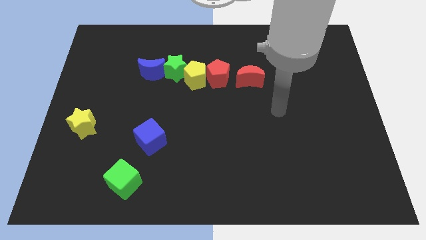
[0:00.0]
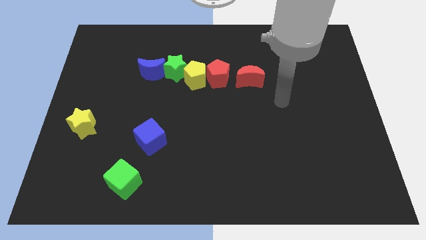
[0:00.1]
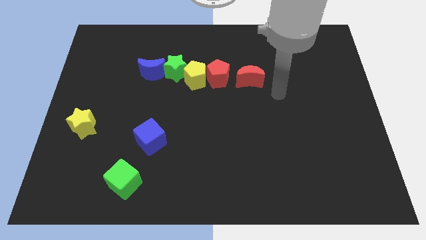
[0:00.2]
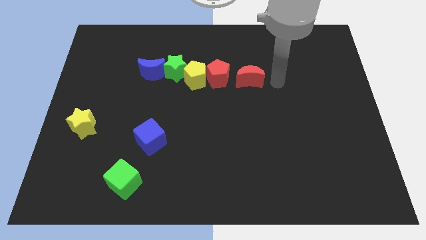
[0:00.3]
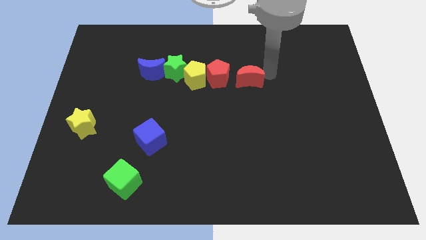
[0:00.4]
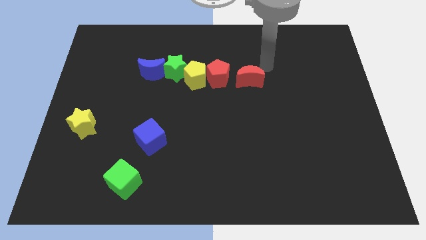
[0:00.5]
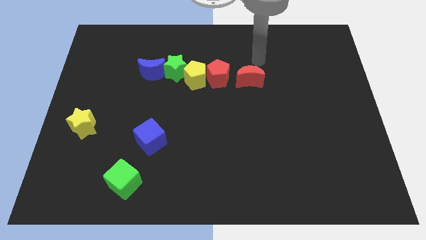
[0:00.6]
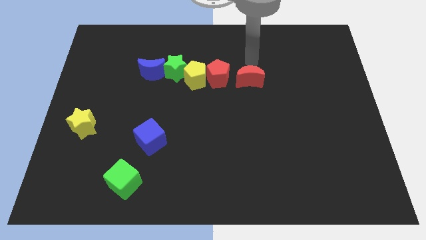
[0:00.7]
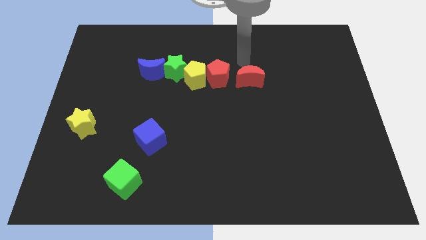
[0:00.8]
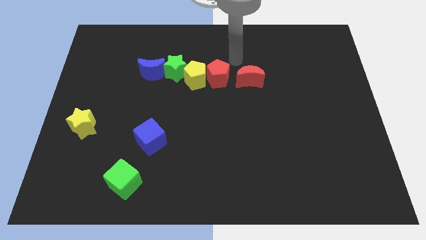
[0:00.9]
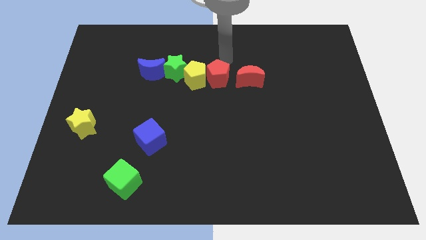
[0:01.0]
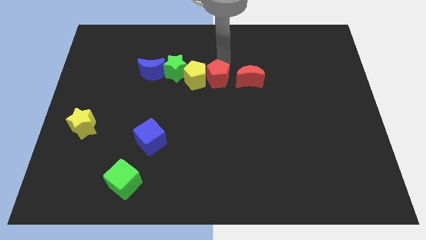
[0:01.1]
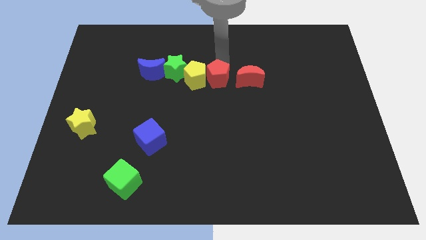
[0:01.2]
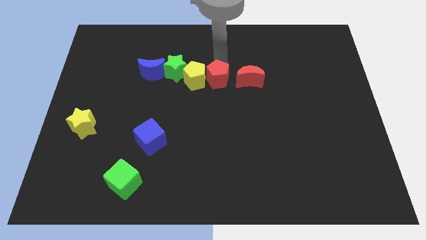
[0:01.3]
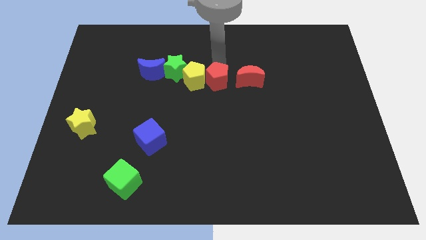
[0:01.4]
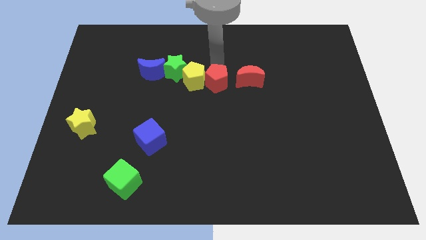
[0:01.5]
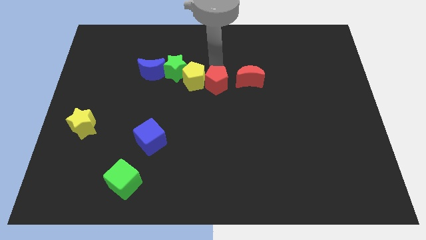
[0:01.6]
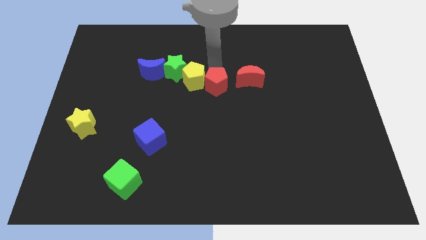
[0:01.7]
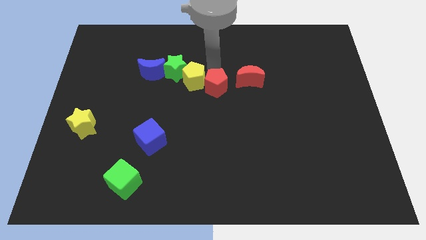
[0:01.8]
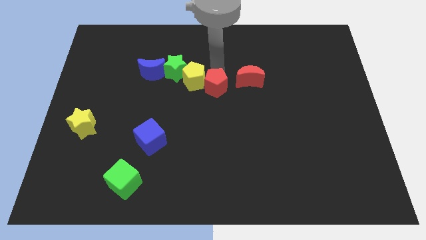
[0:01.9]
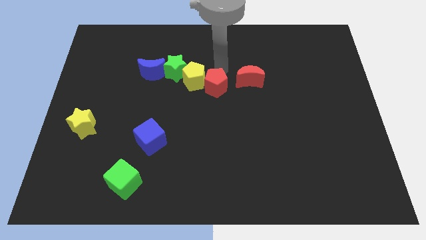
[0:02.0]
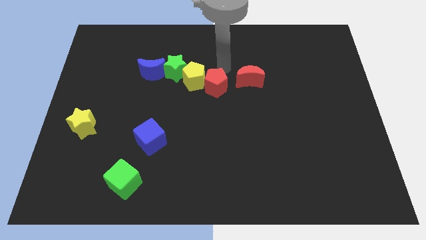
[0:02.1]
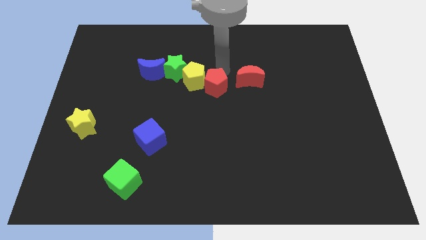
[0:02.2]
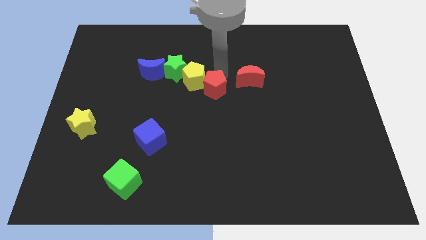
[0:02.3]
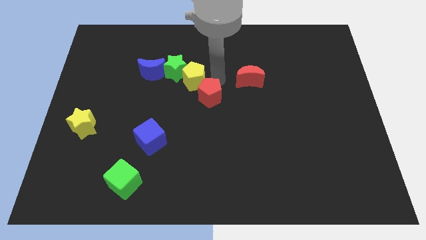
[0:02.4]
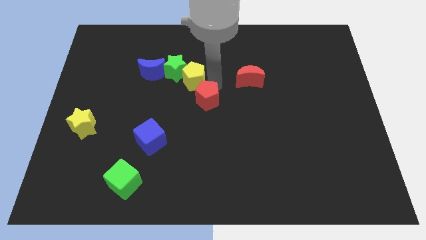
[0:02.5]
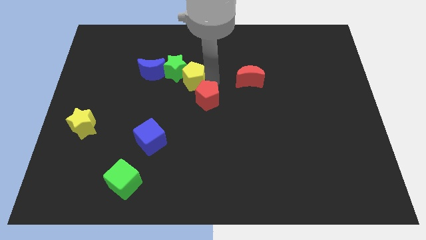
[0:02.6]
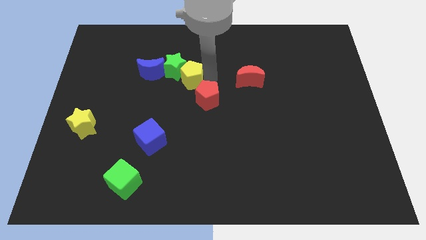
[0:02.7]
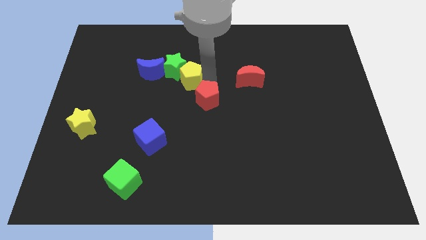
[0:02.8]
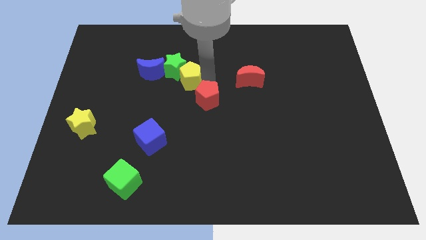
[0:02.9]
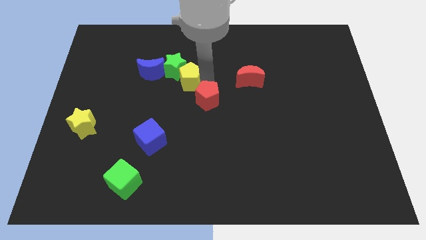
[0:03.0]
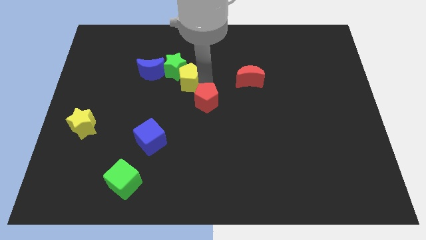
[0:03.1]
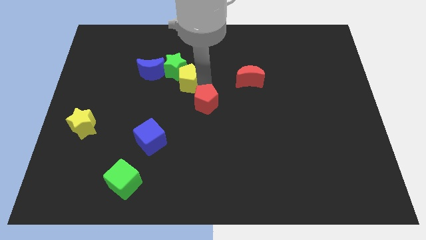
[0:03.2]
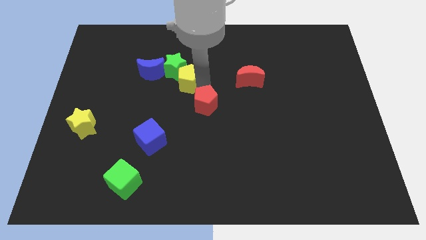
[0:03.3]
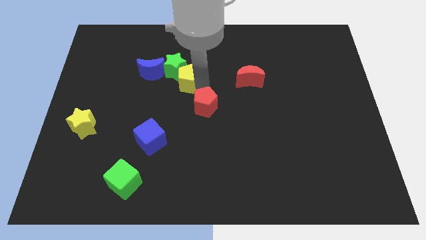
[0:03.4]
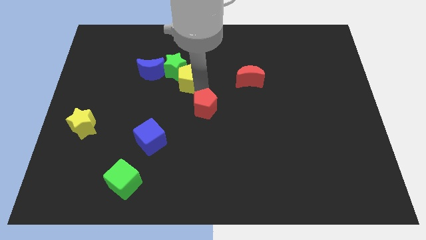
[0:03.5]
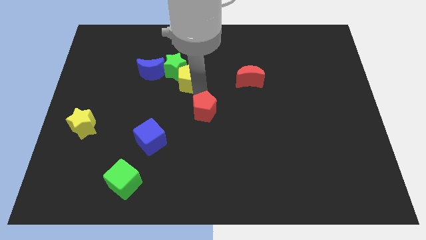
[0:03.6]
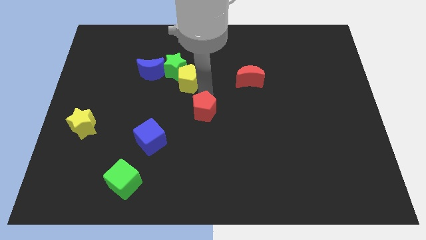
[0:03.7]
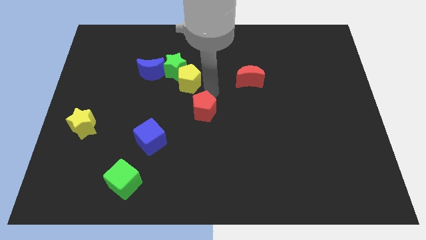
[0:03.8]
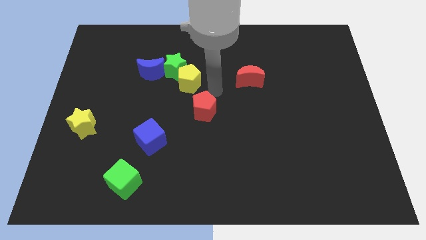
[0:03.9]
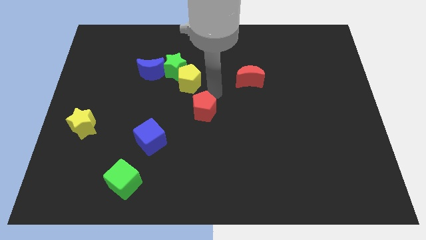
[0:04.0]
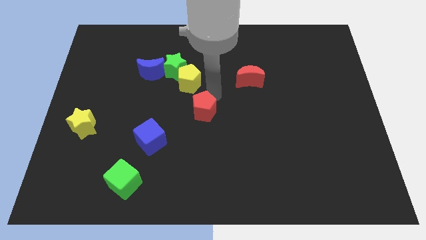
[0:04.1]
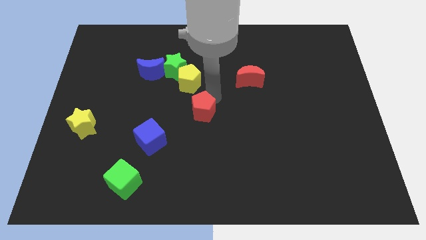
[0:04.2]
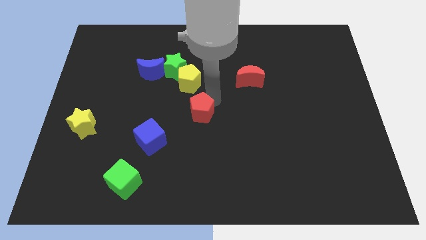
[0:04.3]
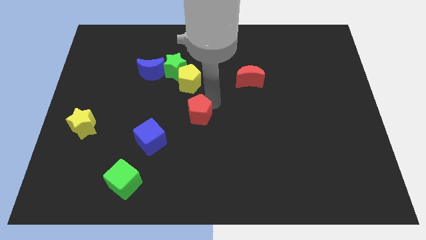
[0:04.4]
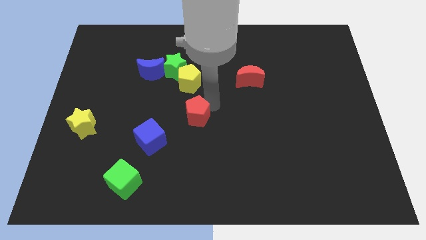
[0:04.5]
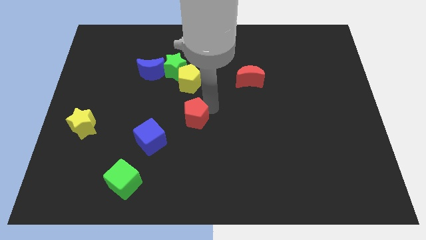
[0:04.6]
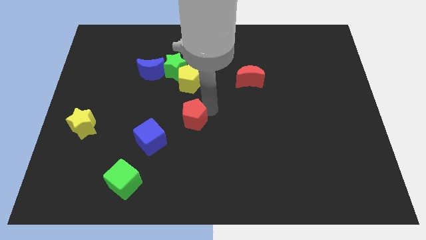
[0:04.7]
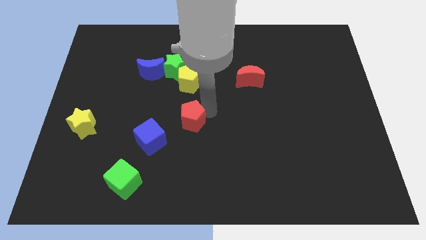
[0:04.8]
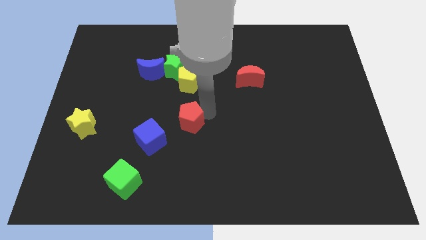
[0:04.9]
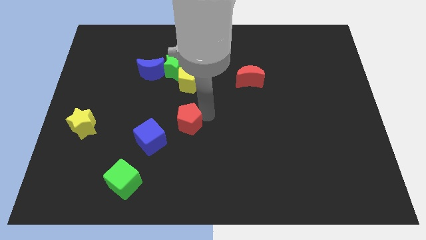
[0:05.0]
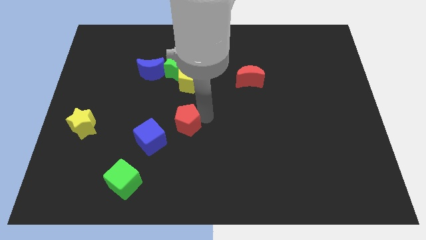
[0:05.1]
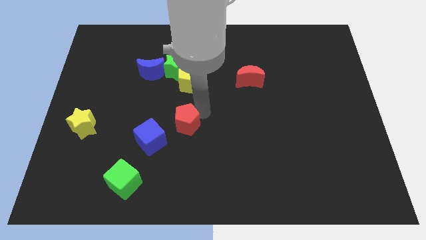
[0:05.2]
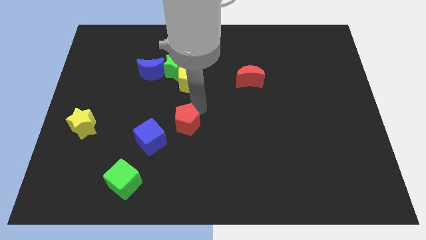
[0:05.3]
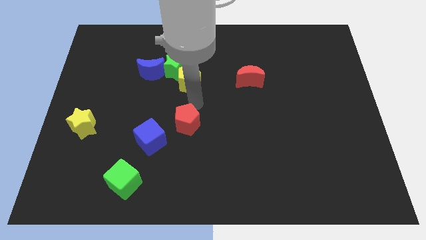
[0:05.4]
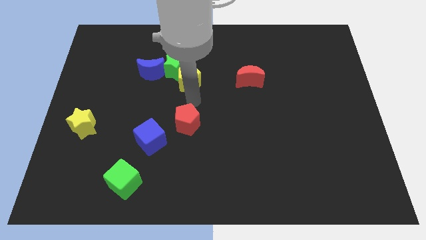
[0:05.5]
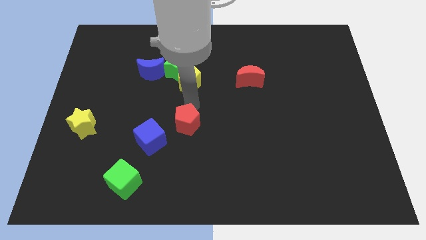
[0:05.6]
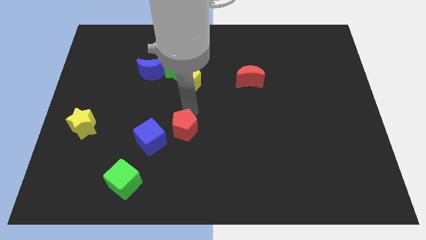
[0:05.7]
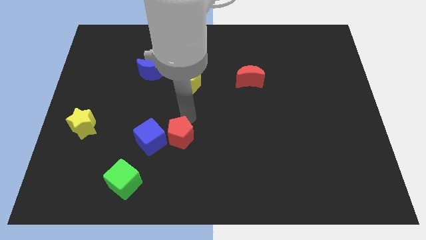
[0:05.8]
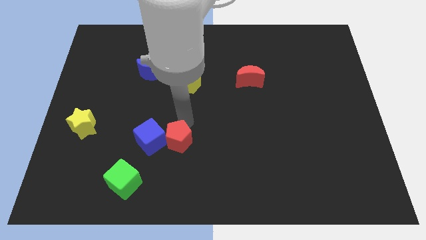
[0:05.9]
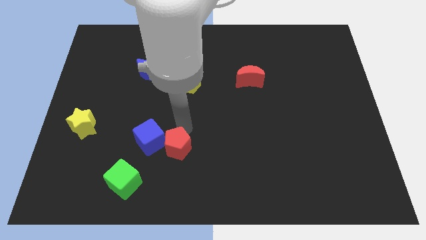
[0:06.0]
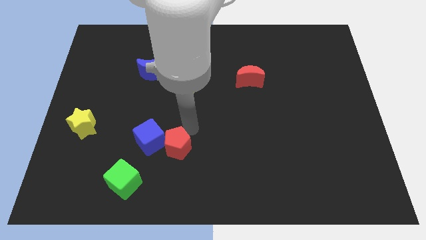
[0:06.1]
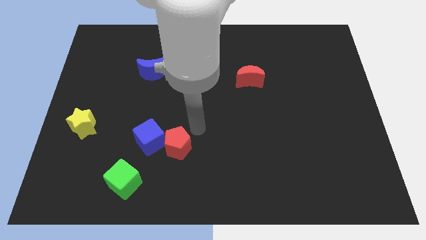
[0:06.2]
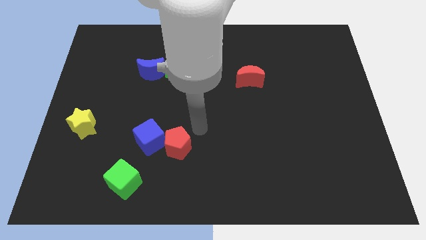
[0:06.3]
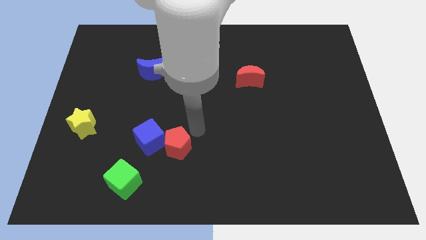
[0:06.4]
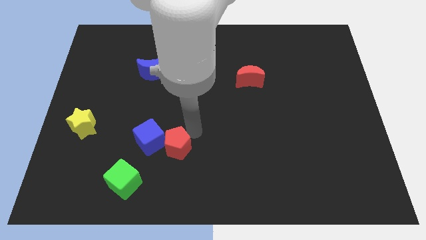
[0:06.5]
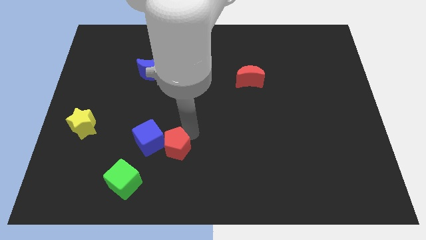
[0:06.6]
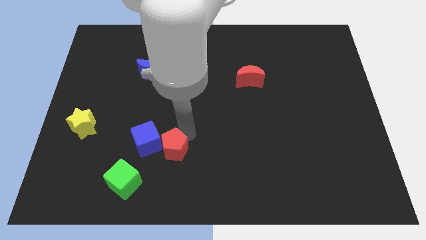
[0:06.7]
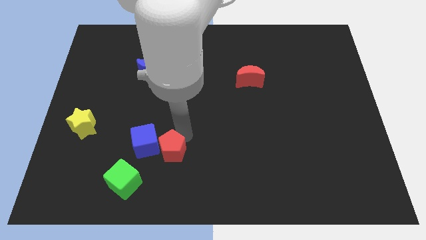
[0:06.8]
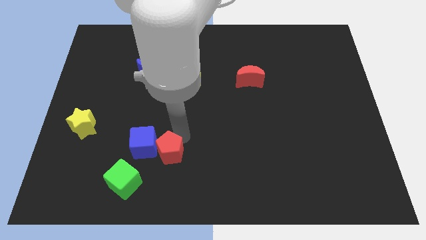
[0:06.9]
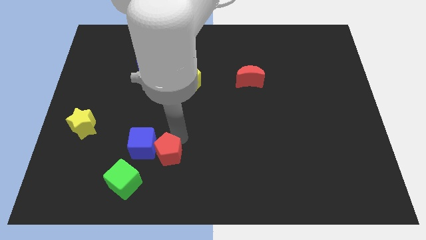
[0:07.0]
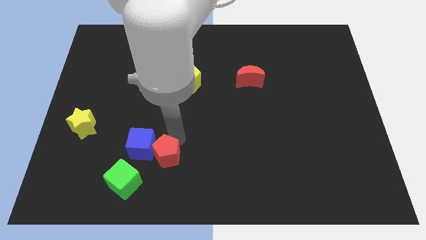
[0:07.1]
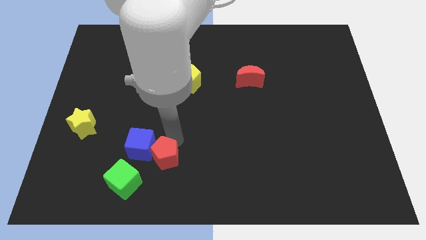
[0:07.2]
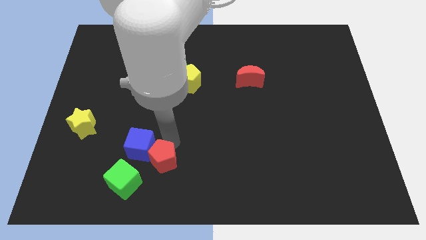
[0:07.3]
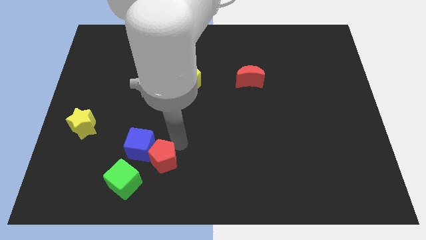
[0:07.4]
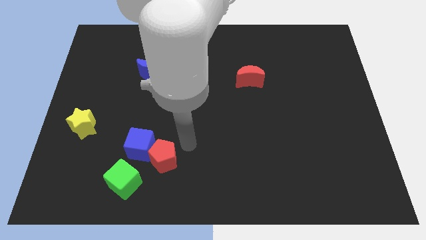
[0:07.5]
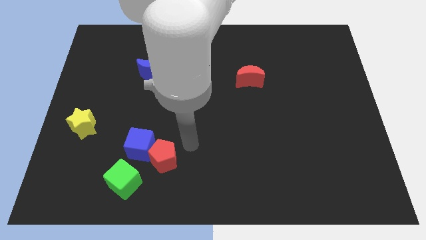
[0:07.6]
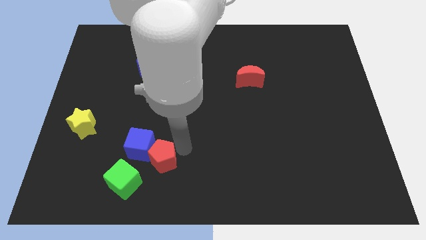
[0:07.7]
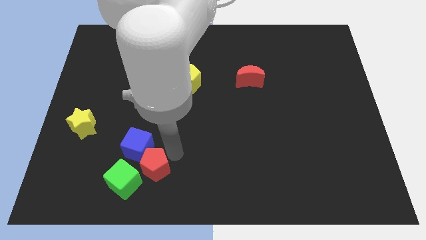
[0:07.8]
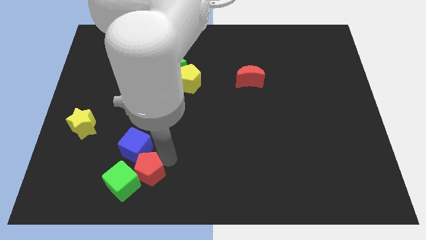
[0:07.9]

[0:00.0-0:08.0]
move the red pentagon to the green cube
